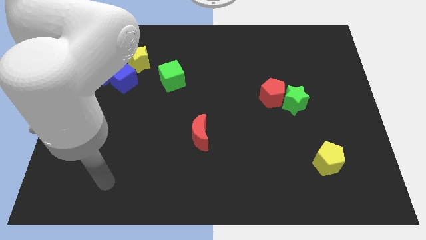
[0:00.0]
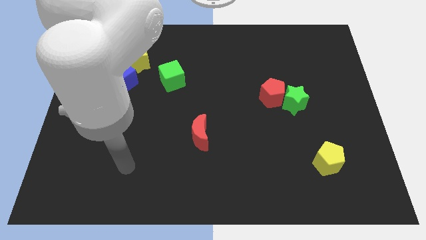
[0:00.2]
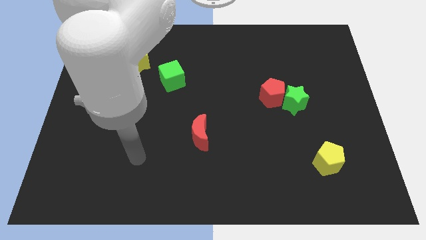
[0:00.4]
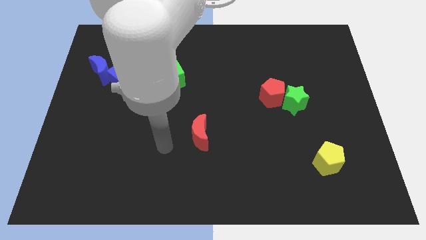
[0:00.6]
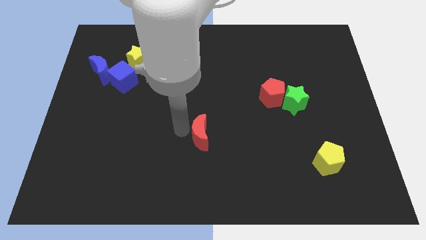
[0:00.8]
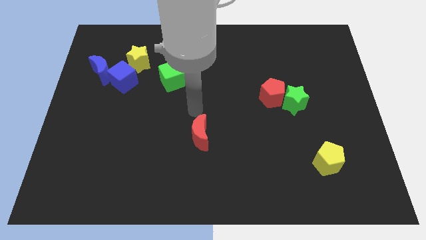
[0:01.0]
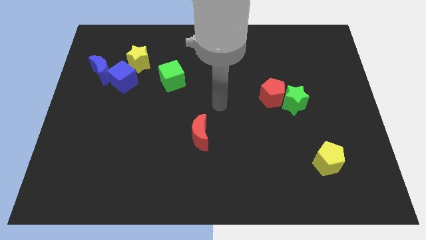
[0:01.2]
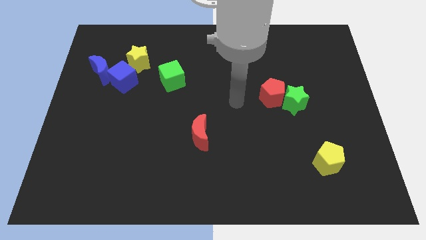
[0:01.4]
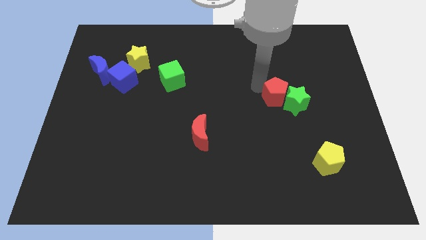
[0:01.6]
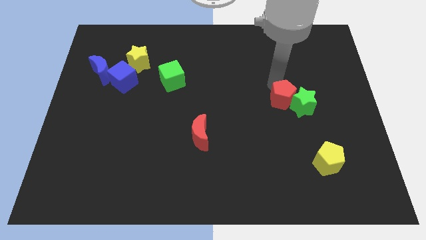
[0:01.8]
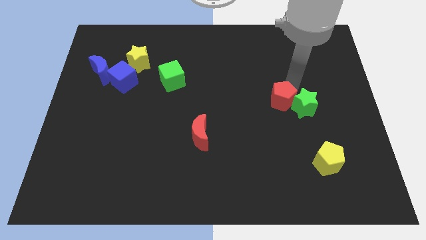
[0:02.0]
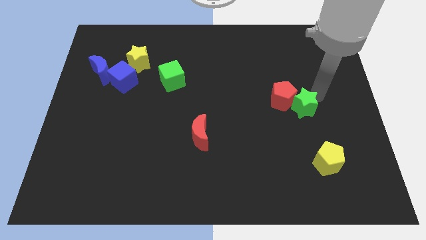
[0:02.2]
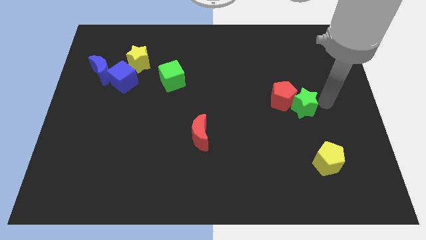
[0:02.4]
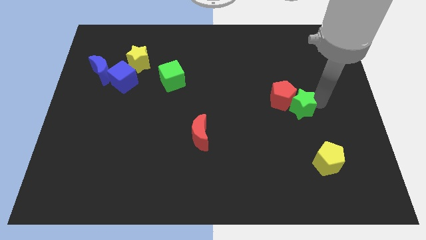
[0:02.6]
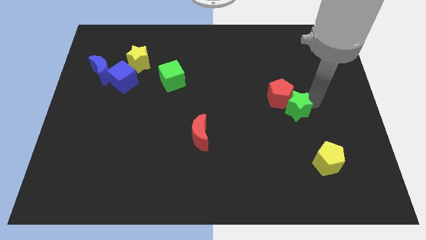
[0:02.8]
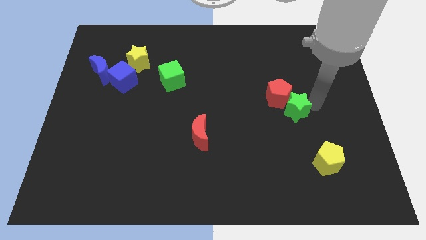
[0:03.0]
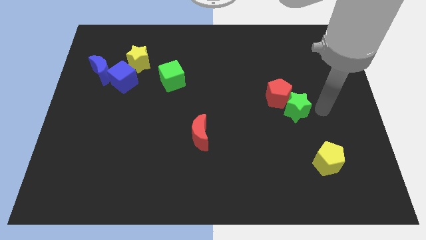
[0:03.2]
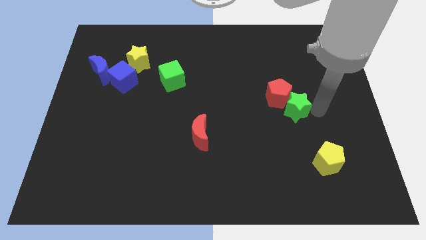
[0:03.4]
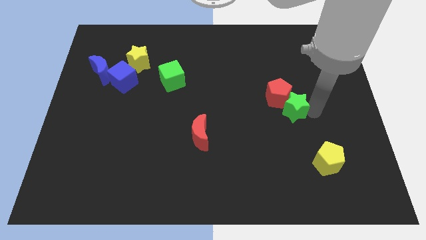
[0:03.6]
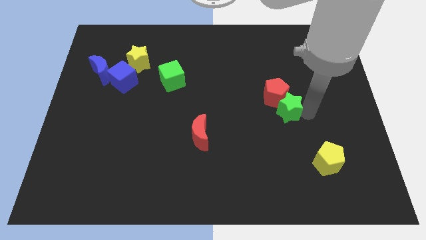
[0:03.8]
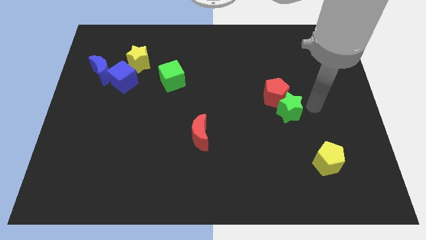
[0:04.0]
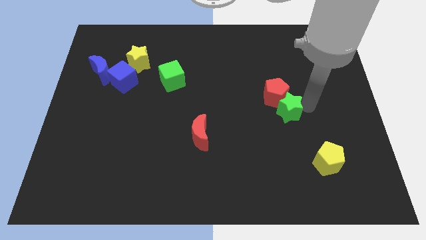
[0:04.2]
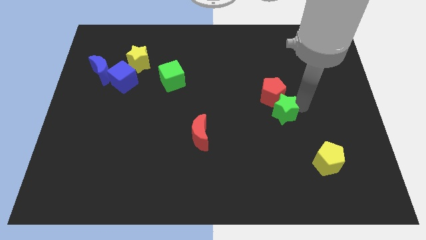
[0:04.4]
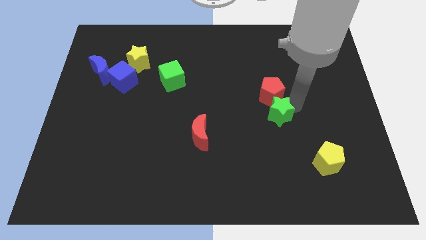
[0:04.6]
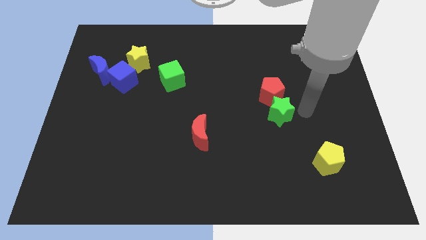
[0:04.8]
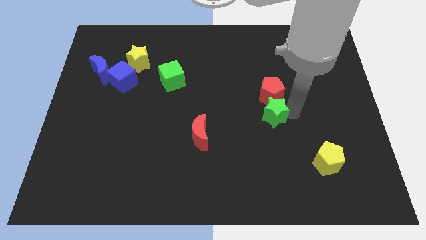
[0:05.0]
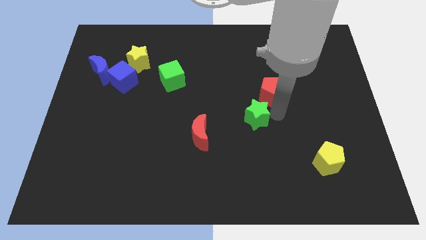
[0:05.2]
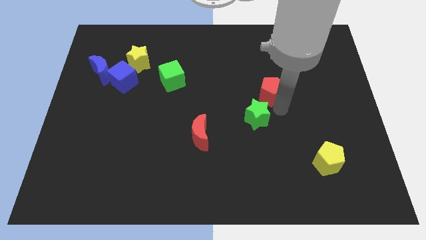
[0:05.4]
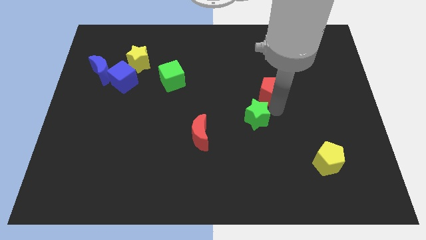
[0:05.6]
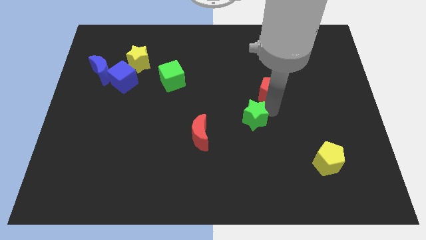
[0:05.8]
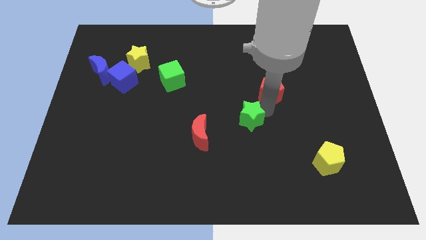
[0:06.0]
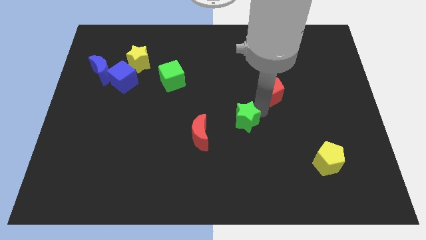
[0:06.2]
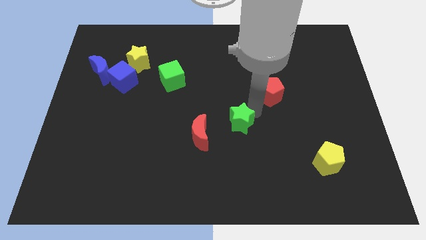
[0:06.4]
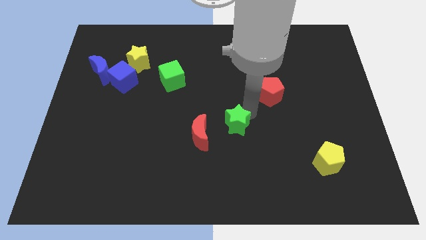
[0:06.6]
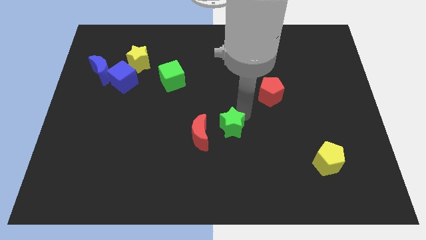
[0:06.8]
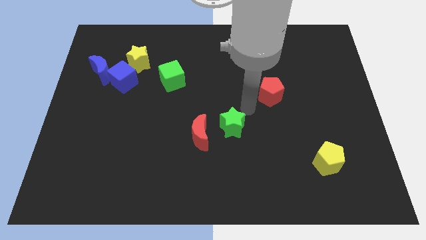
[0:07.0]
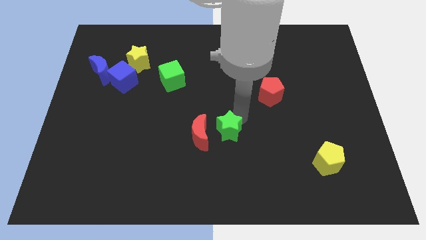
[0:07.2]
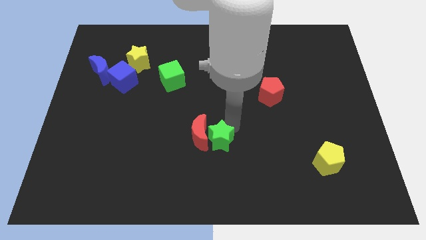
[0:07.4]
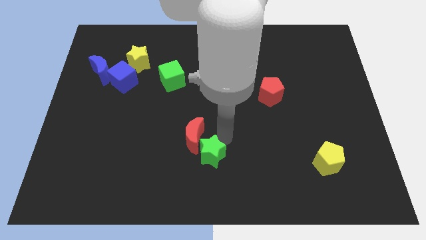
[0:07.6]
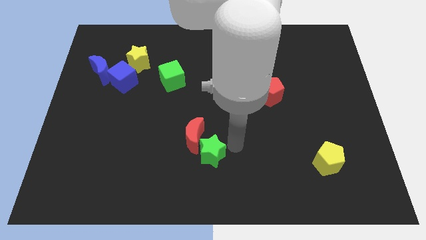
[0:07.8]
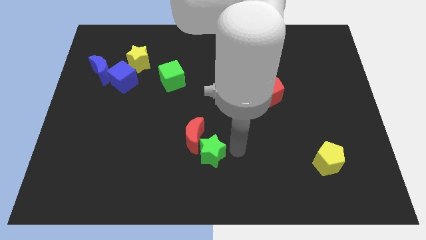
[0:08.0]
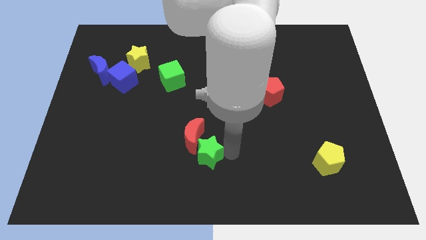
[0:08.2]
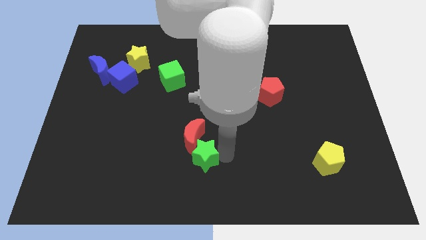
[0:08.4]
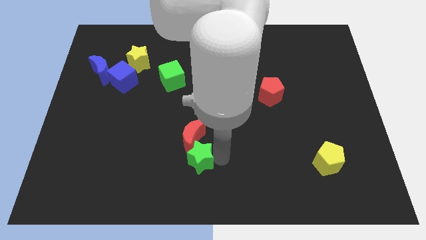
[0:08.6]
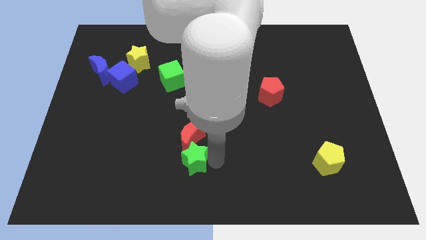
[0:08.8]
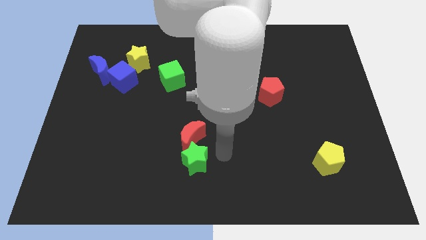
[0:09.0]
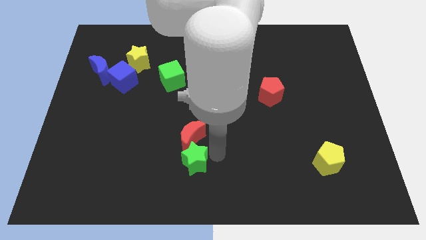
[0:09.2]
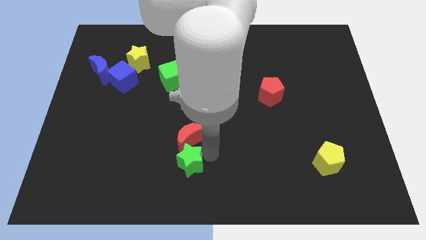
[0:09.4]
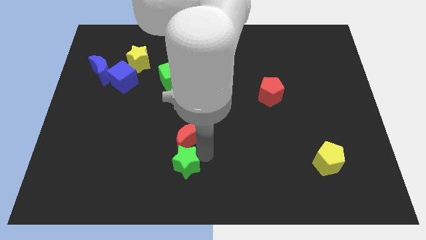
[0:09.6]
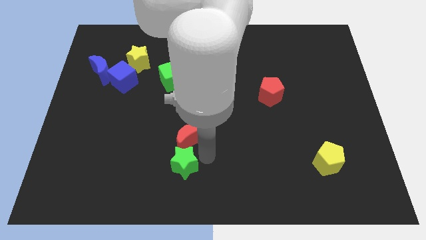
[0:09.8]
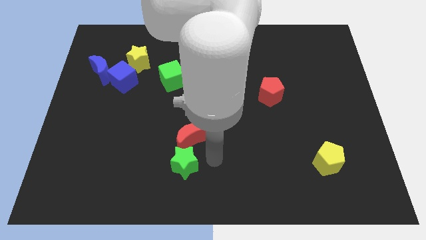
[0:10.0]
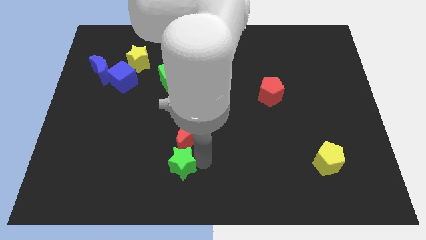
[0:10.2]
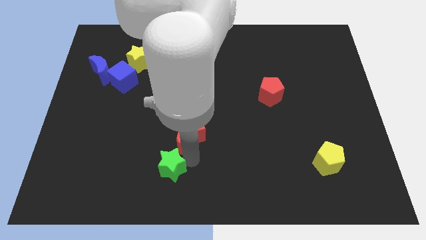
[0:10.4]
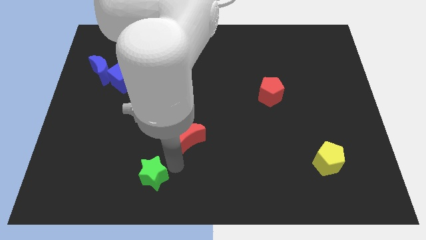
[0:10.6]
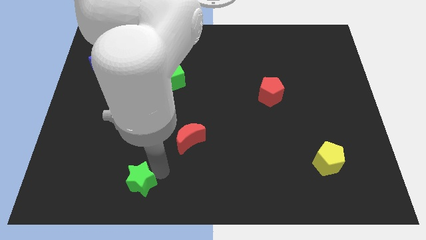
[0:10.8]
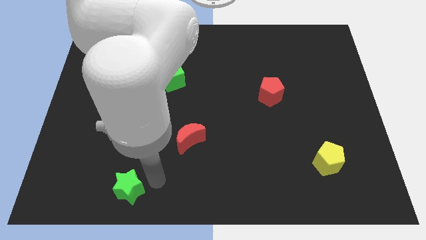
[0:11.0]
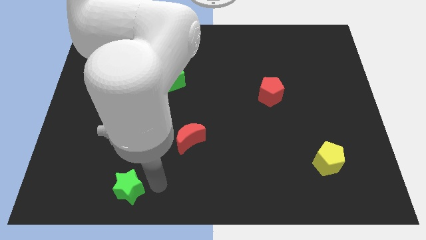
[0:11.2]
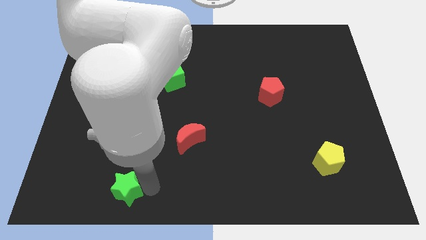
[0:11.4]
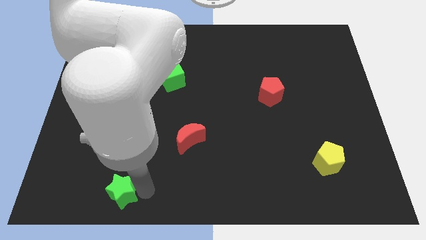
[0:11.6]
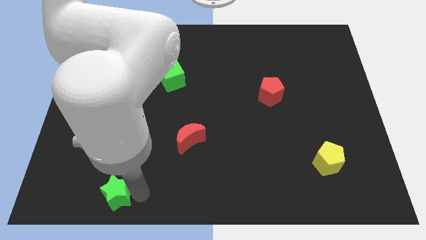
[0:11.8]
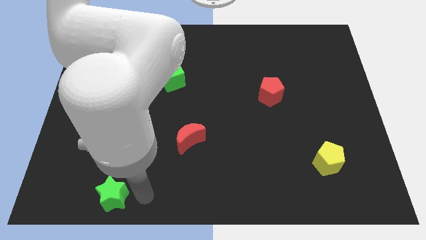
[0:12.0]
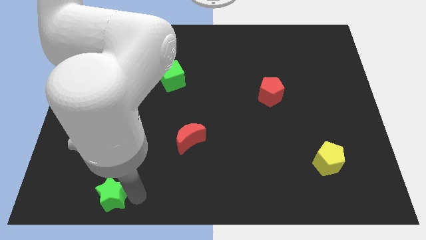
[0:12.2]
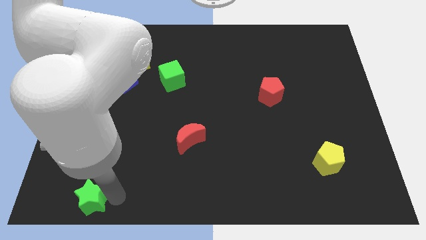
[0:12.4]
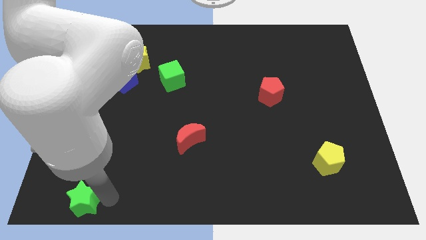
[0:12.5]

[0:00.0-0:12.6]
push the green star to the lower left corner
